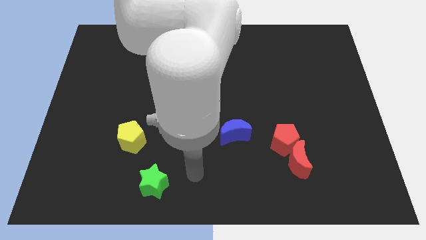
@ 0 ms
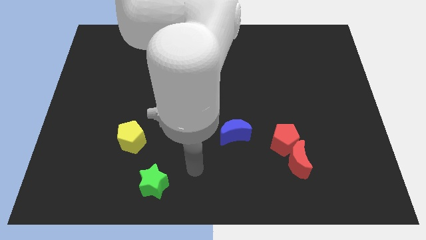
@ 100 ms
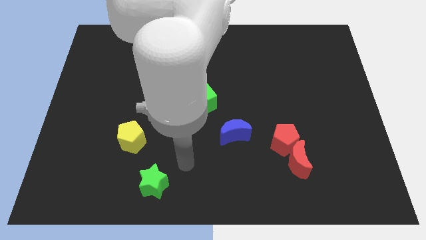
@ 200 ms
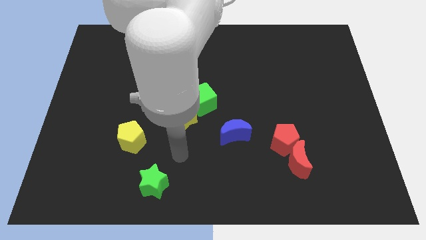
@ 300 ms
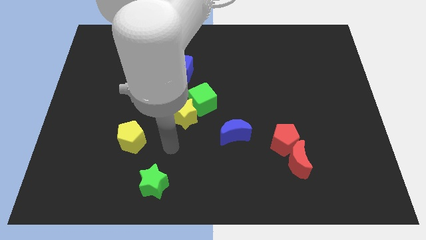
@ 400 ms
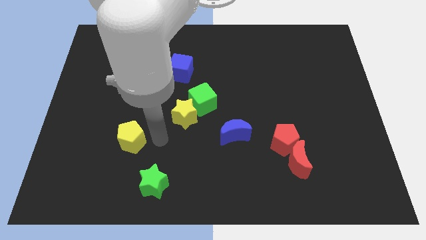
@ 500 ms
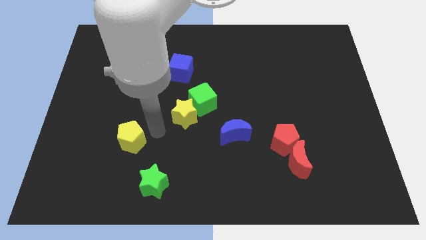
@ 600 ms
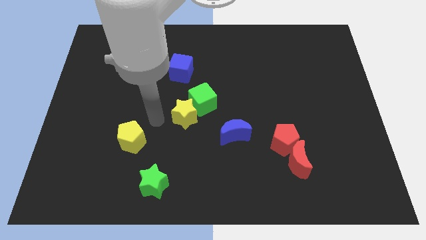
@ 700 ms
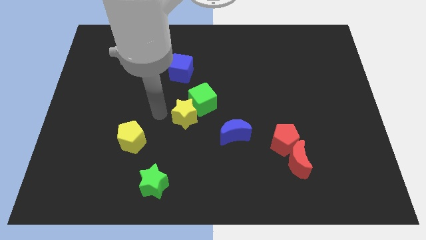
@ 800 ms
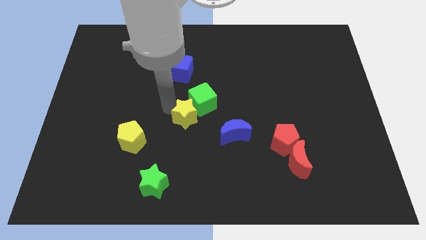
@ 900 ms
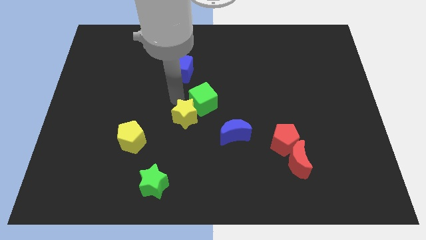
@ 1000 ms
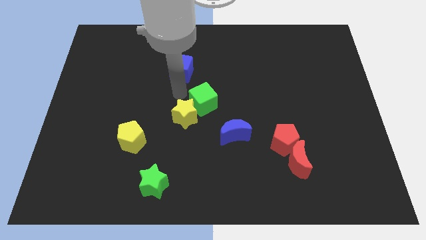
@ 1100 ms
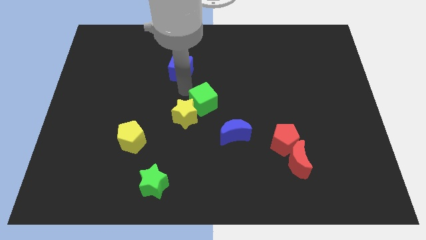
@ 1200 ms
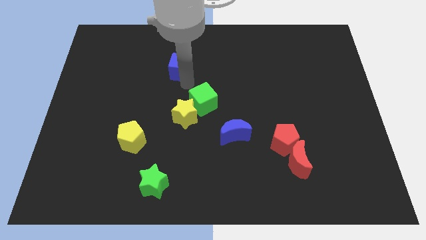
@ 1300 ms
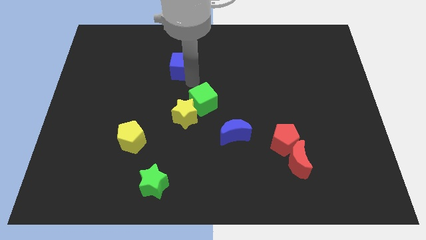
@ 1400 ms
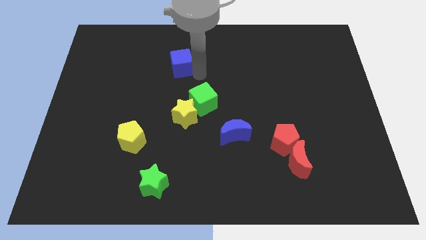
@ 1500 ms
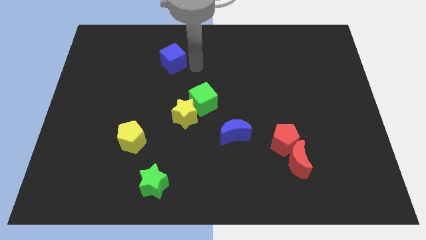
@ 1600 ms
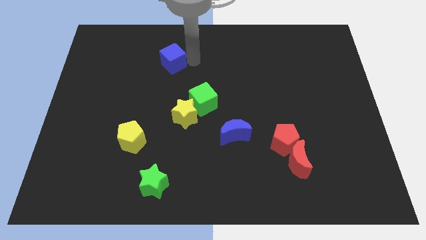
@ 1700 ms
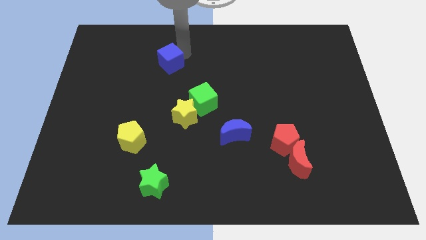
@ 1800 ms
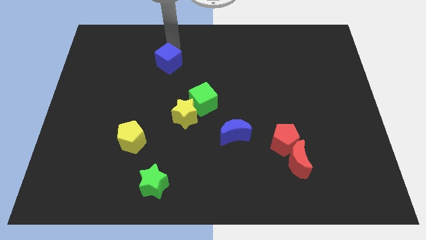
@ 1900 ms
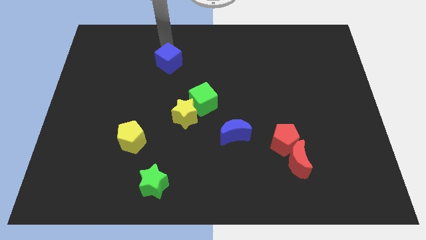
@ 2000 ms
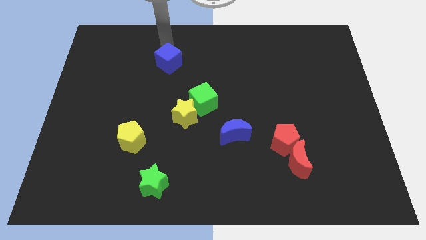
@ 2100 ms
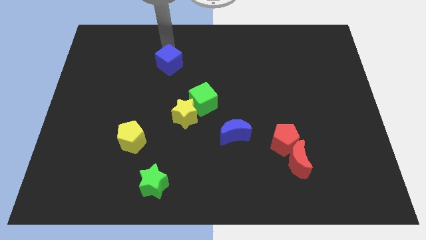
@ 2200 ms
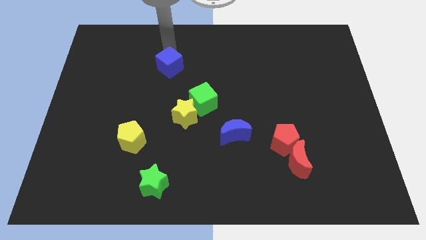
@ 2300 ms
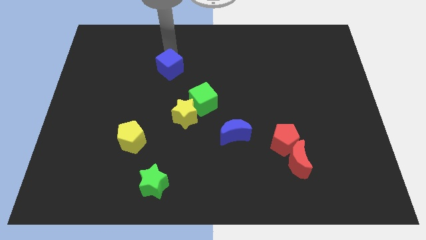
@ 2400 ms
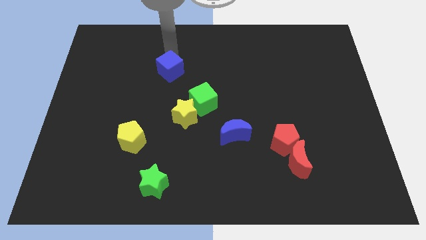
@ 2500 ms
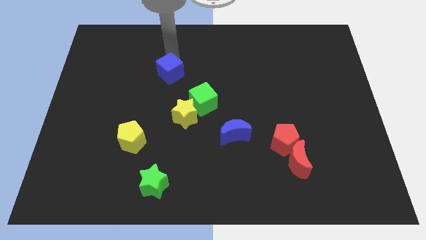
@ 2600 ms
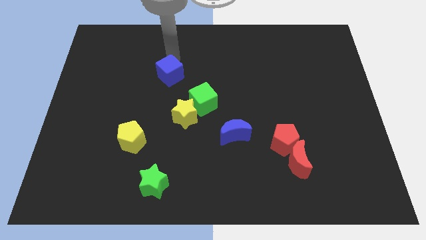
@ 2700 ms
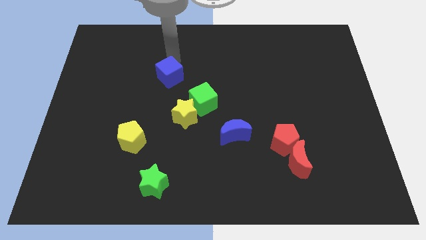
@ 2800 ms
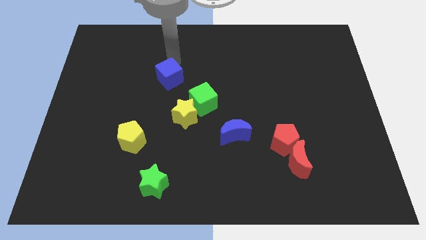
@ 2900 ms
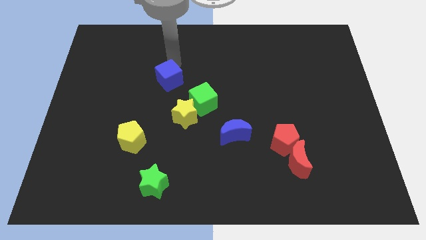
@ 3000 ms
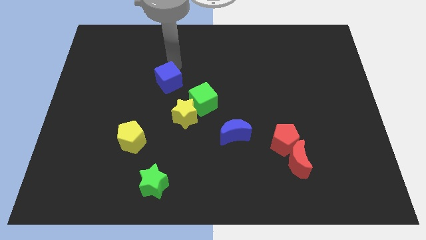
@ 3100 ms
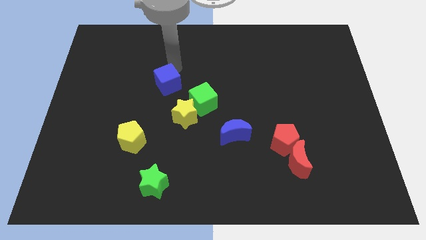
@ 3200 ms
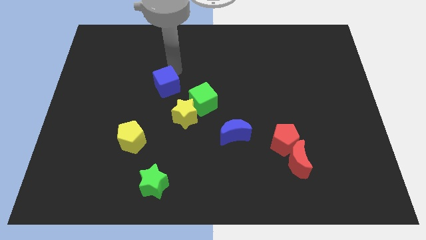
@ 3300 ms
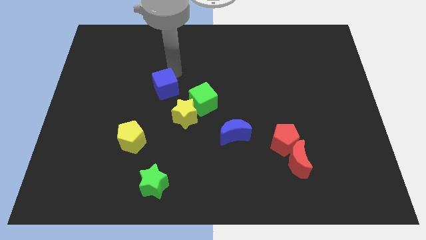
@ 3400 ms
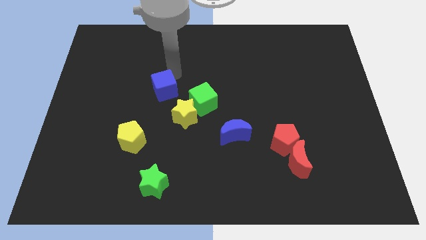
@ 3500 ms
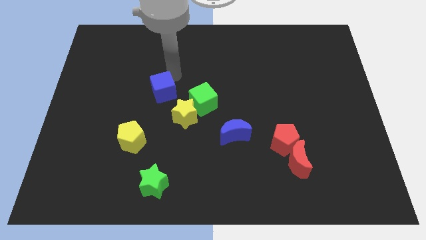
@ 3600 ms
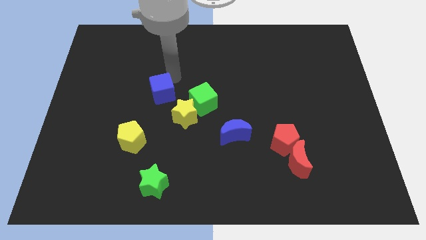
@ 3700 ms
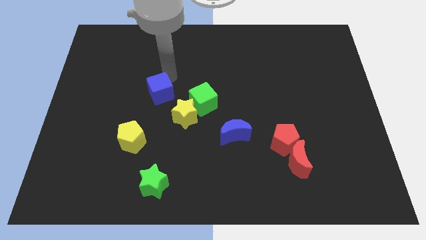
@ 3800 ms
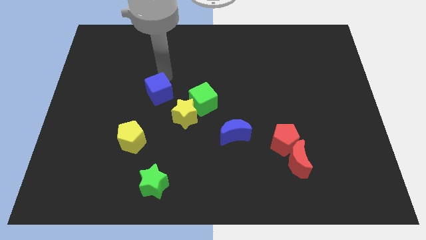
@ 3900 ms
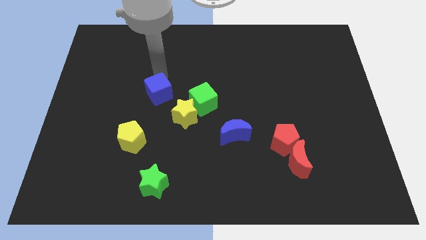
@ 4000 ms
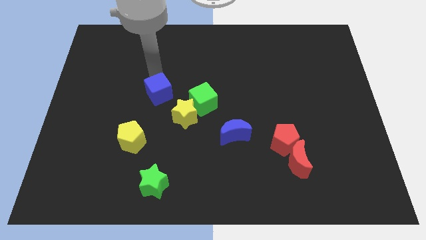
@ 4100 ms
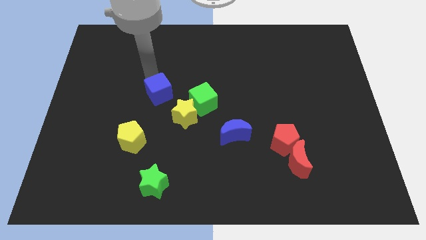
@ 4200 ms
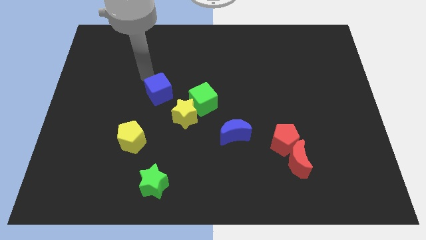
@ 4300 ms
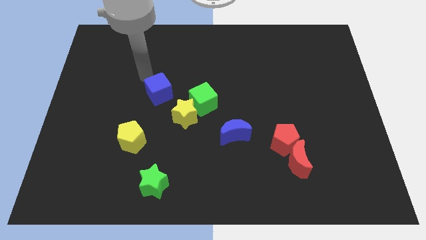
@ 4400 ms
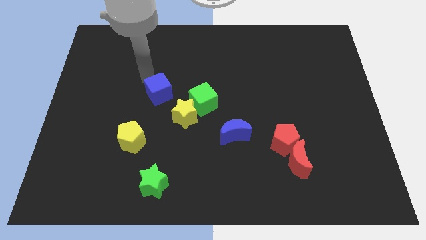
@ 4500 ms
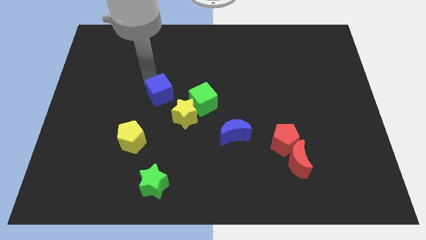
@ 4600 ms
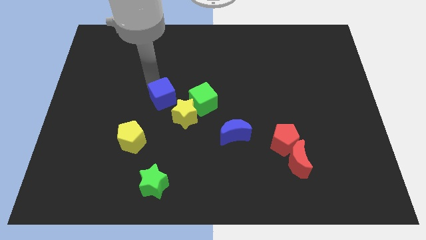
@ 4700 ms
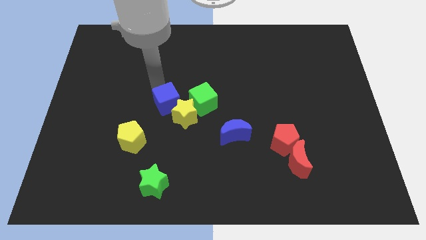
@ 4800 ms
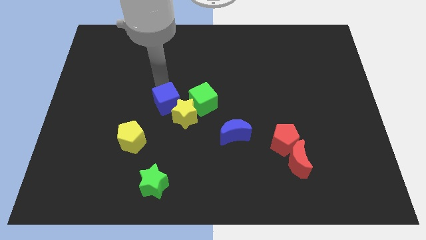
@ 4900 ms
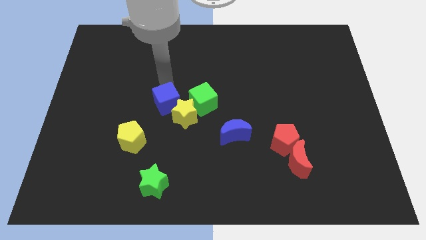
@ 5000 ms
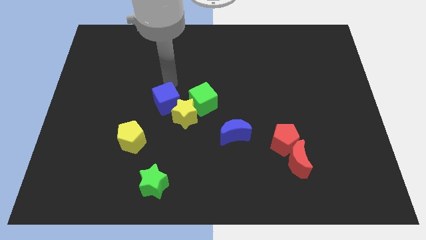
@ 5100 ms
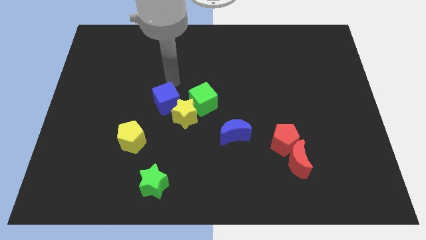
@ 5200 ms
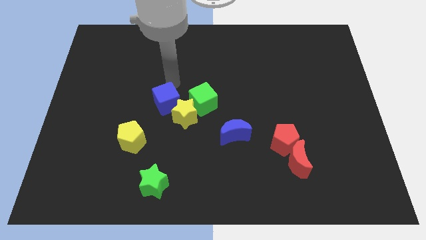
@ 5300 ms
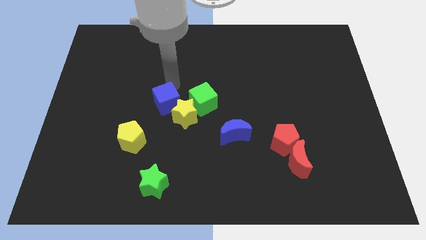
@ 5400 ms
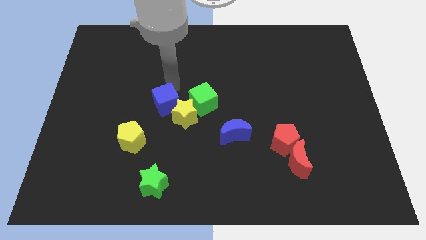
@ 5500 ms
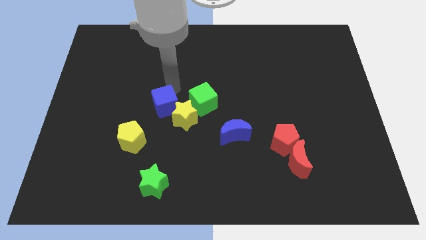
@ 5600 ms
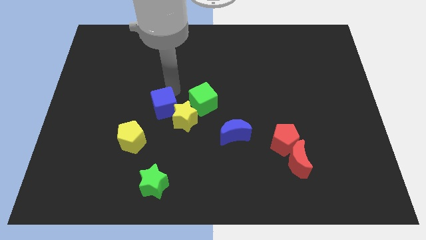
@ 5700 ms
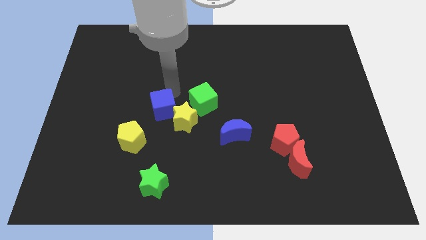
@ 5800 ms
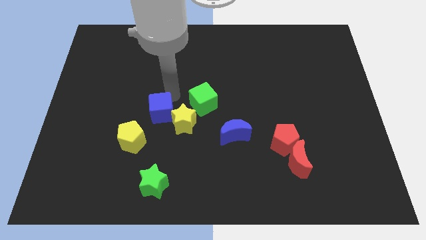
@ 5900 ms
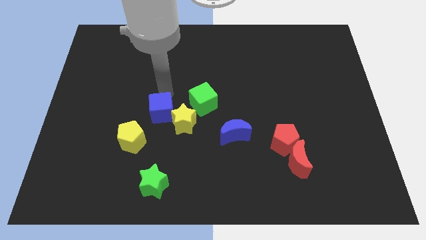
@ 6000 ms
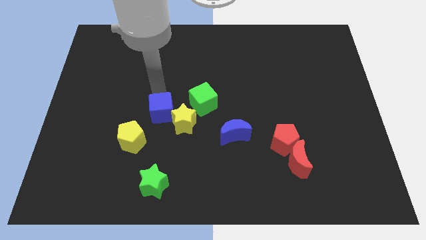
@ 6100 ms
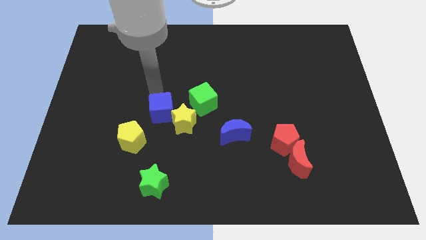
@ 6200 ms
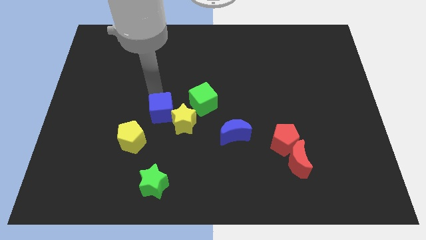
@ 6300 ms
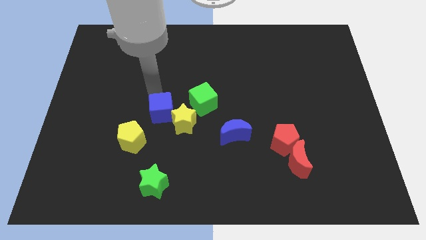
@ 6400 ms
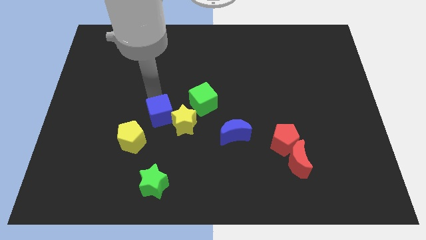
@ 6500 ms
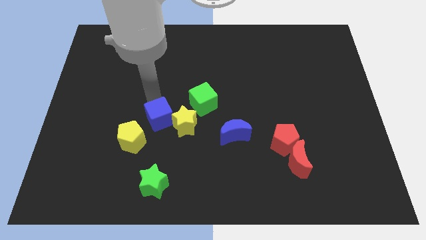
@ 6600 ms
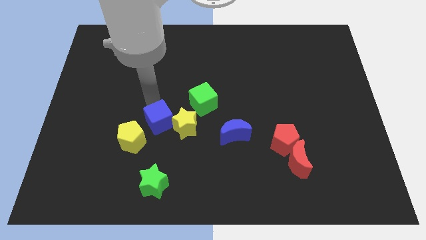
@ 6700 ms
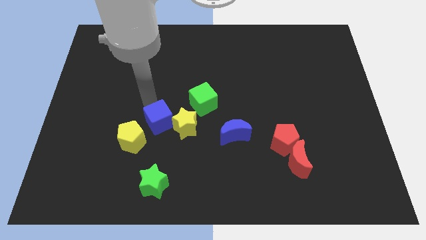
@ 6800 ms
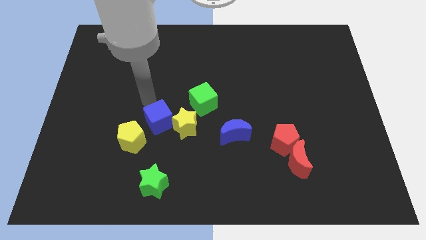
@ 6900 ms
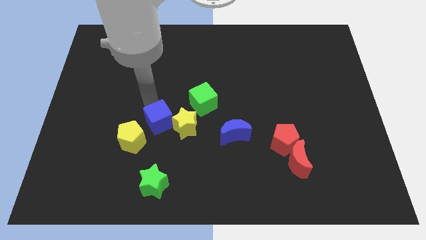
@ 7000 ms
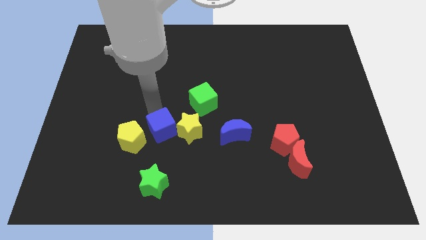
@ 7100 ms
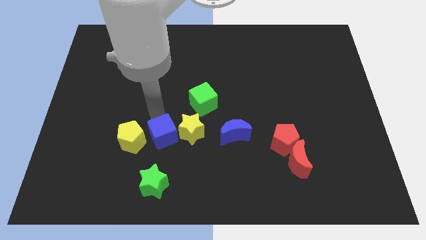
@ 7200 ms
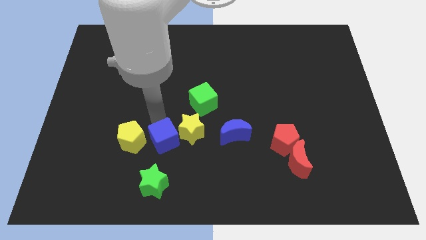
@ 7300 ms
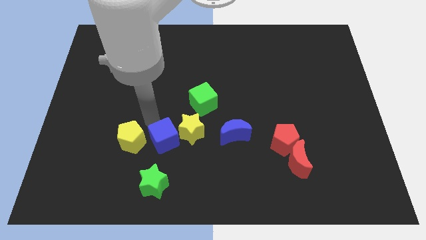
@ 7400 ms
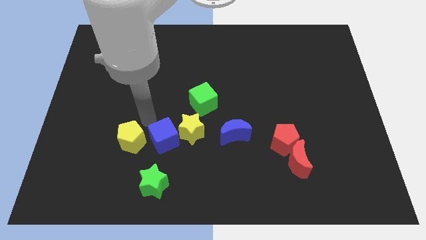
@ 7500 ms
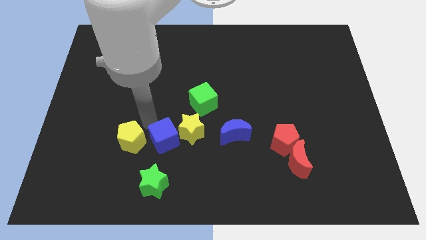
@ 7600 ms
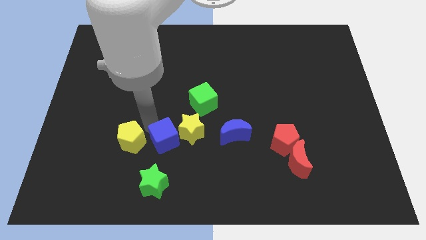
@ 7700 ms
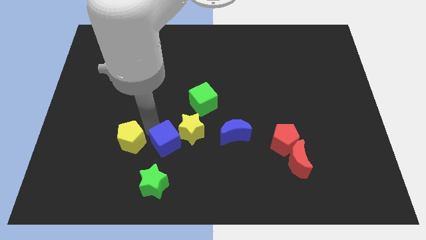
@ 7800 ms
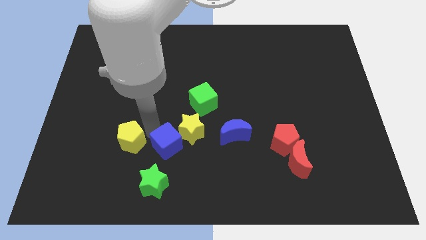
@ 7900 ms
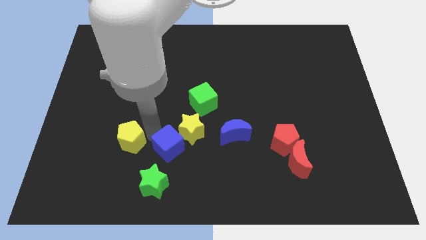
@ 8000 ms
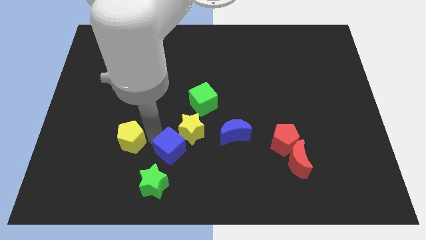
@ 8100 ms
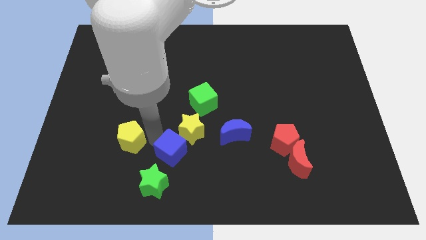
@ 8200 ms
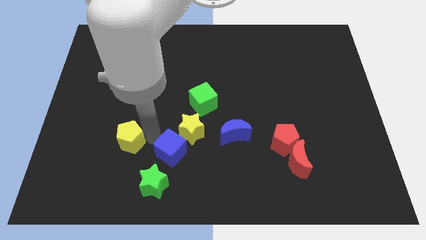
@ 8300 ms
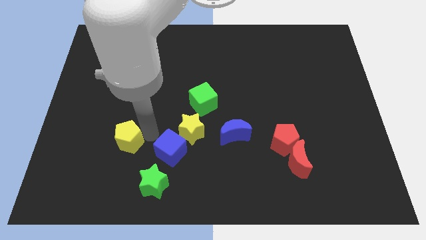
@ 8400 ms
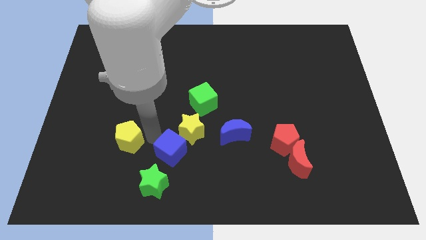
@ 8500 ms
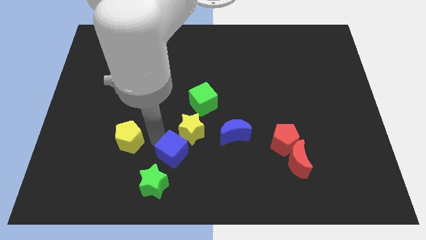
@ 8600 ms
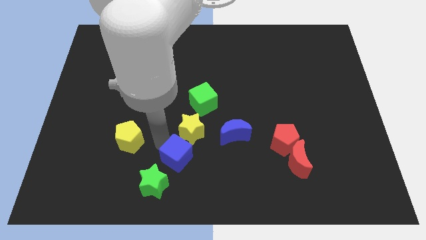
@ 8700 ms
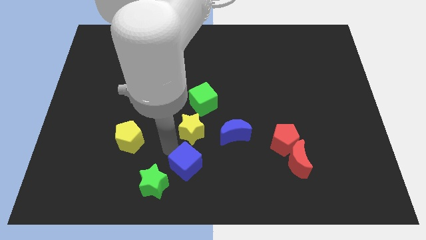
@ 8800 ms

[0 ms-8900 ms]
move the blue cube to the bottom side
